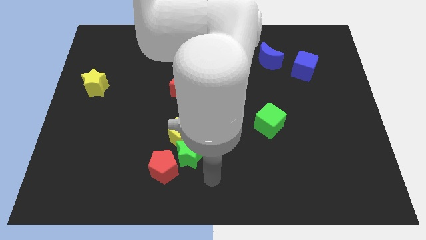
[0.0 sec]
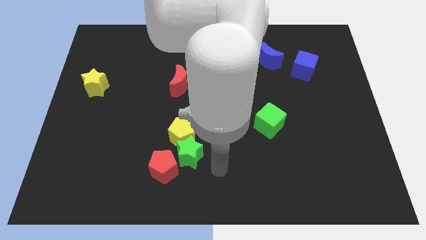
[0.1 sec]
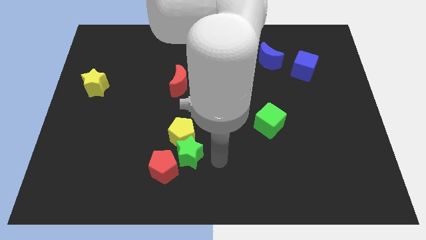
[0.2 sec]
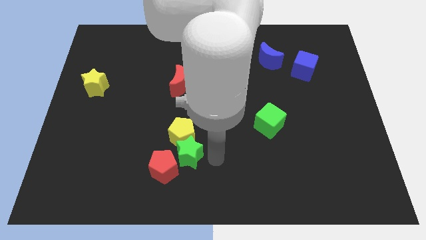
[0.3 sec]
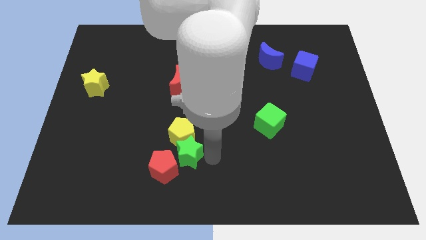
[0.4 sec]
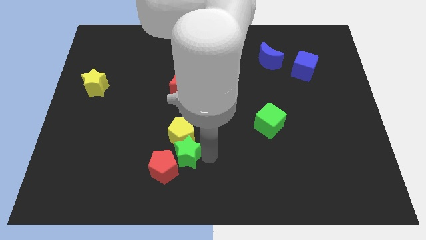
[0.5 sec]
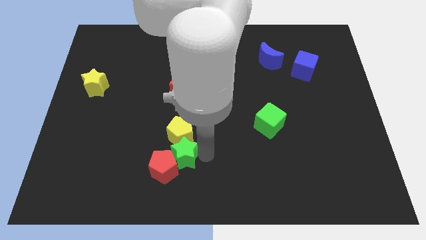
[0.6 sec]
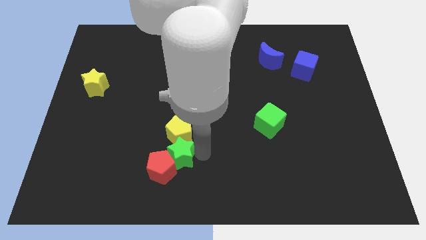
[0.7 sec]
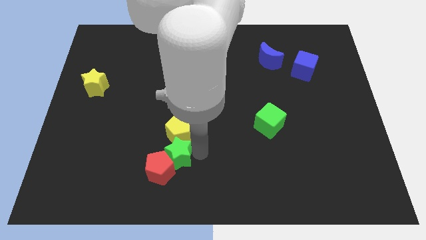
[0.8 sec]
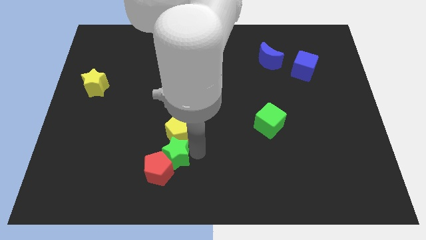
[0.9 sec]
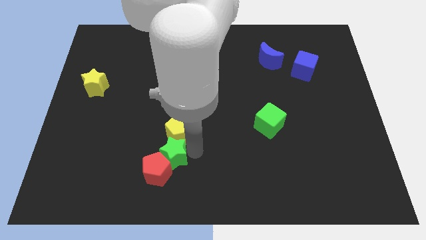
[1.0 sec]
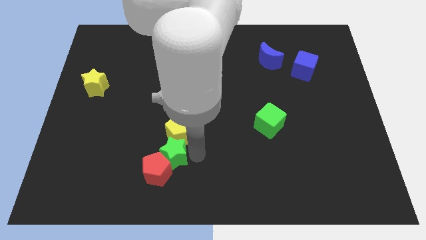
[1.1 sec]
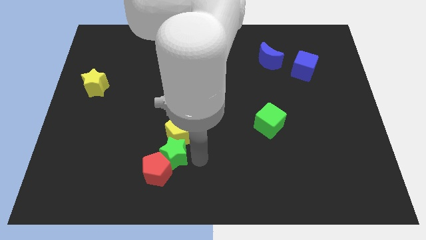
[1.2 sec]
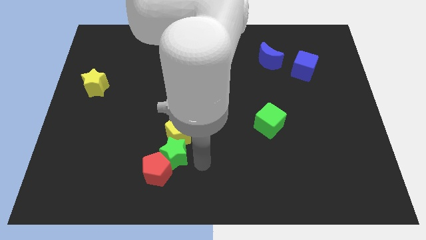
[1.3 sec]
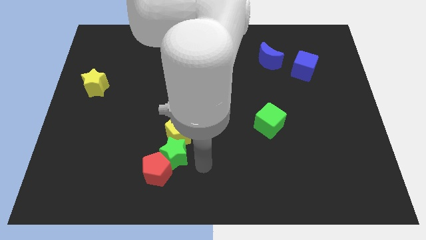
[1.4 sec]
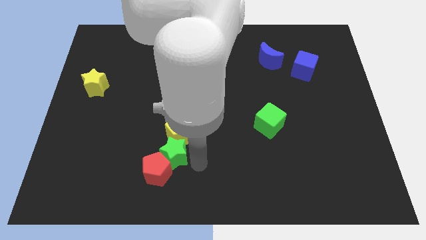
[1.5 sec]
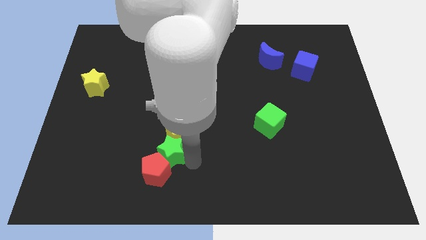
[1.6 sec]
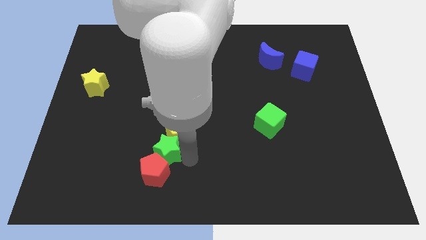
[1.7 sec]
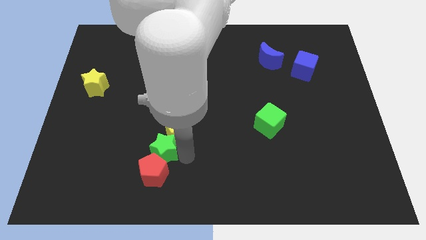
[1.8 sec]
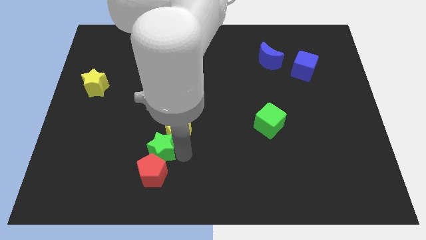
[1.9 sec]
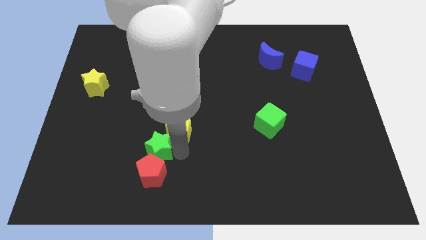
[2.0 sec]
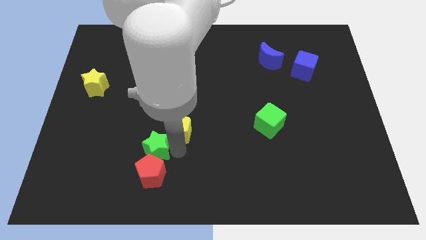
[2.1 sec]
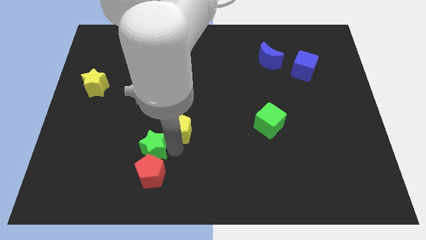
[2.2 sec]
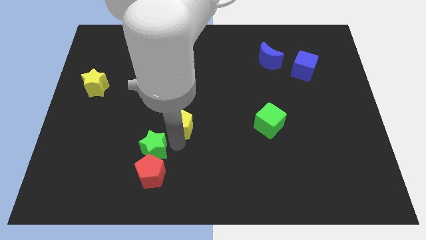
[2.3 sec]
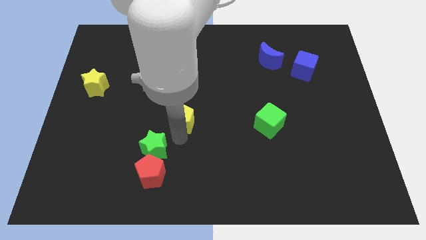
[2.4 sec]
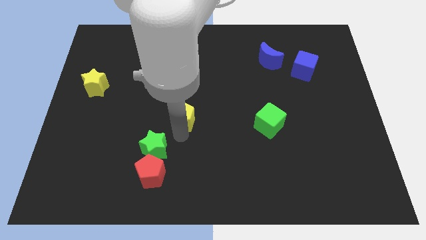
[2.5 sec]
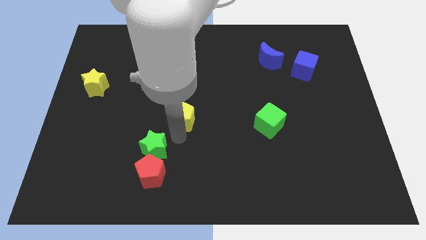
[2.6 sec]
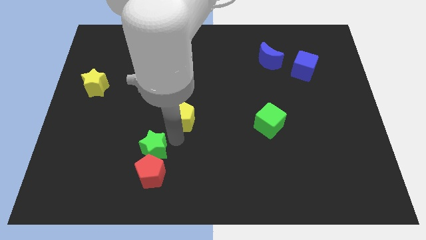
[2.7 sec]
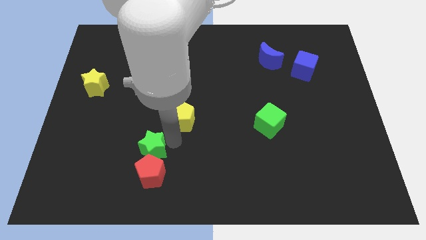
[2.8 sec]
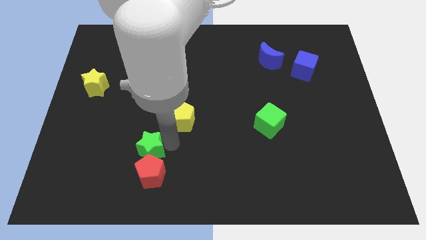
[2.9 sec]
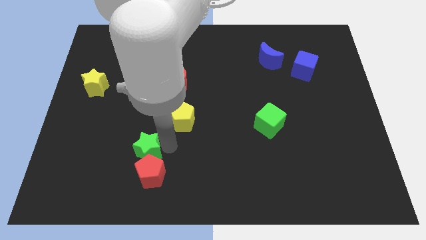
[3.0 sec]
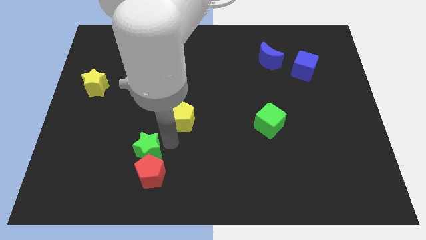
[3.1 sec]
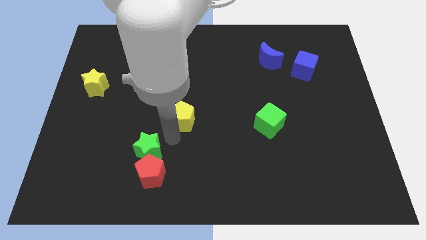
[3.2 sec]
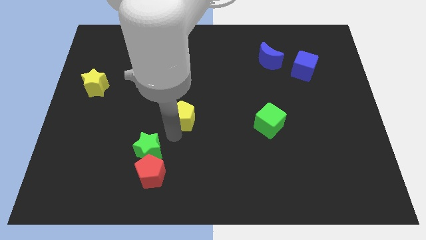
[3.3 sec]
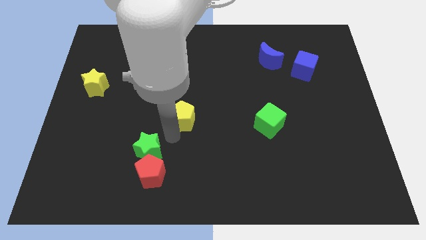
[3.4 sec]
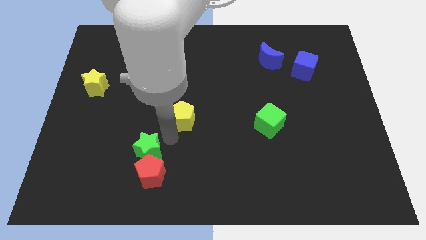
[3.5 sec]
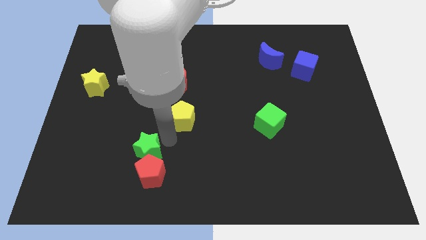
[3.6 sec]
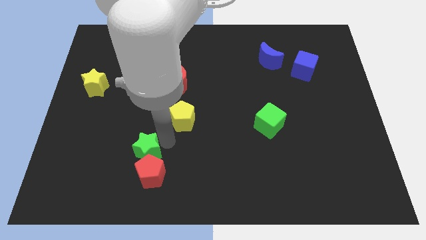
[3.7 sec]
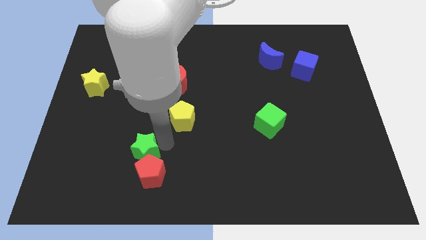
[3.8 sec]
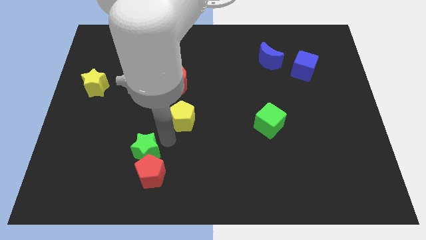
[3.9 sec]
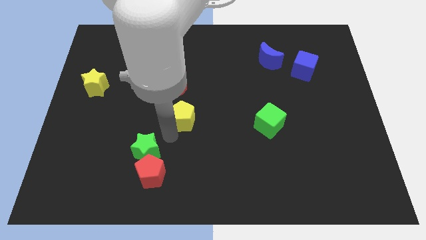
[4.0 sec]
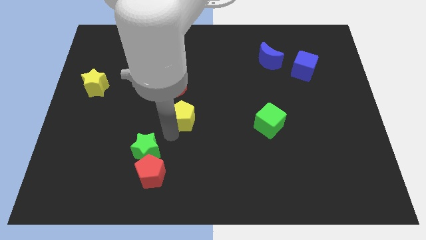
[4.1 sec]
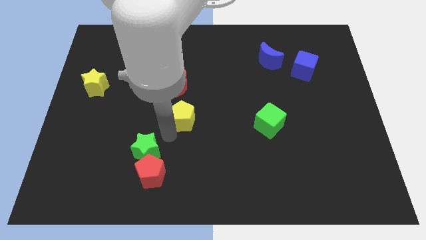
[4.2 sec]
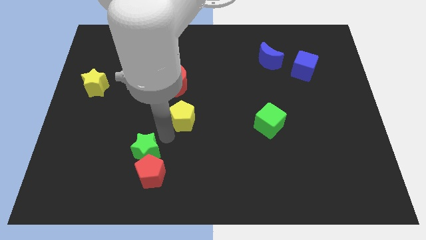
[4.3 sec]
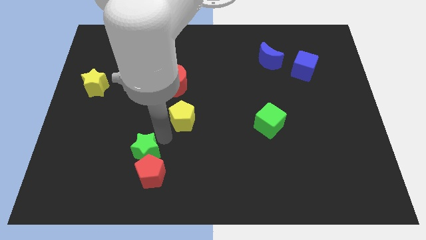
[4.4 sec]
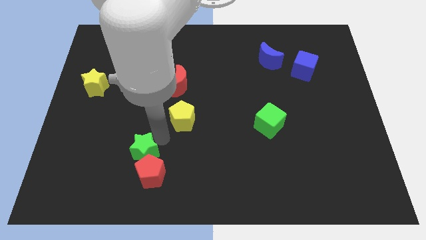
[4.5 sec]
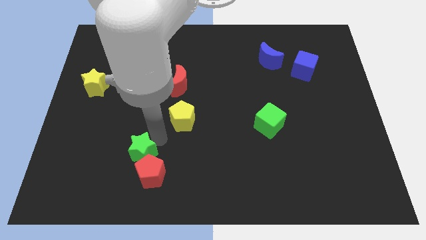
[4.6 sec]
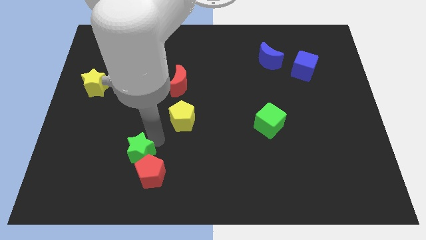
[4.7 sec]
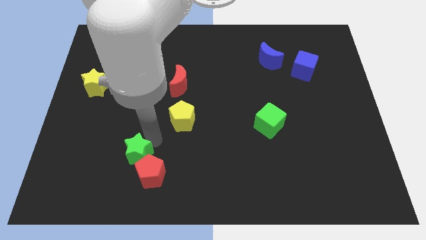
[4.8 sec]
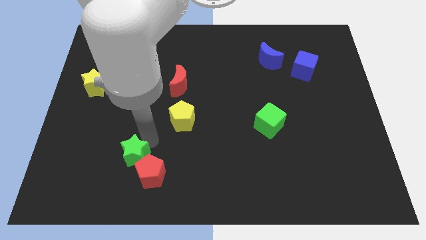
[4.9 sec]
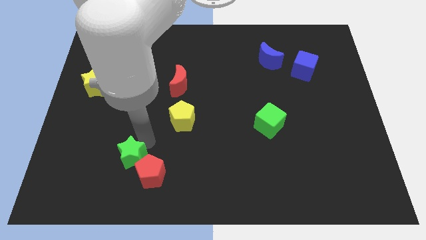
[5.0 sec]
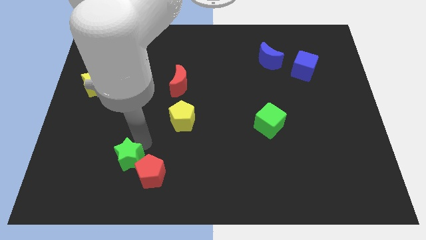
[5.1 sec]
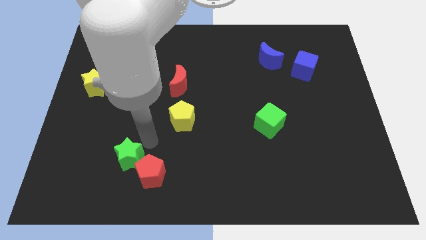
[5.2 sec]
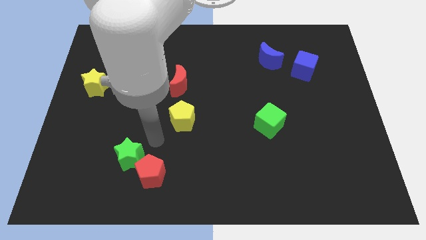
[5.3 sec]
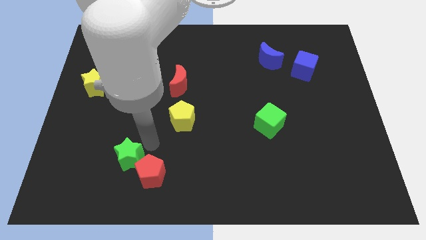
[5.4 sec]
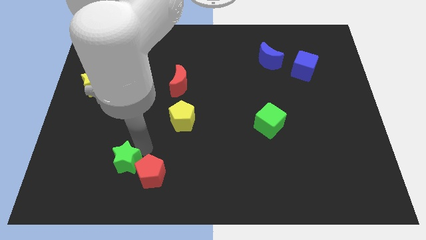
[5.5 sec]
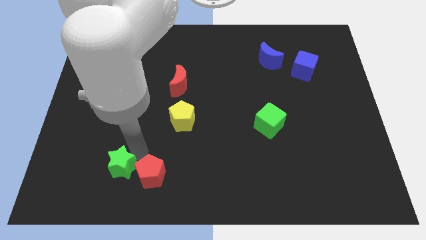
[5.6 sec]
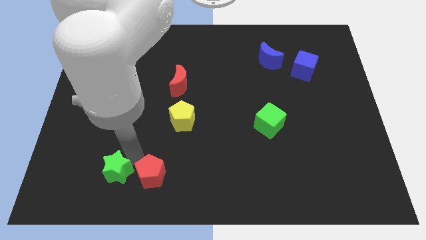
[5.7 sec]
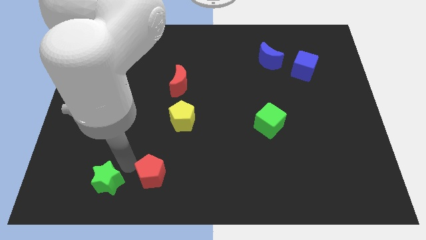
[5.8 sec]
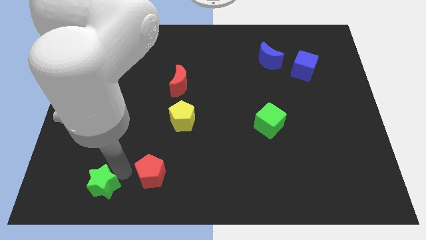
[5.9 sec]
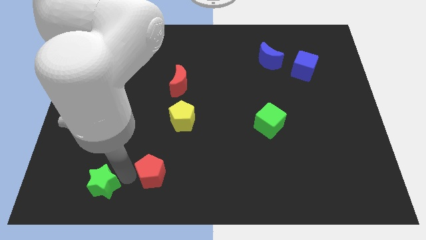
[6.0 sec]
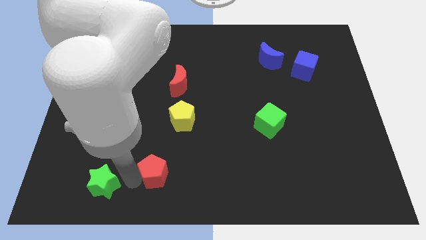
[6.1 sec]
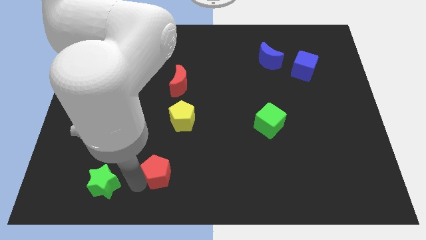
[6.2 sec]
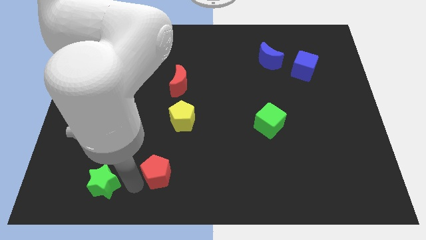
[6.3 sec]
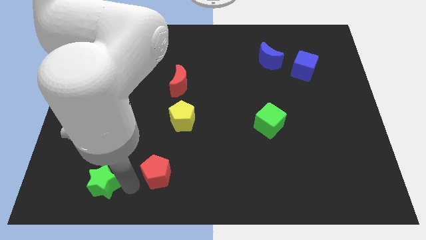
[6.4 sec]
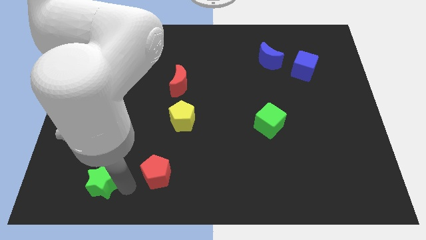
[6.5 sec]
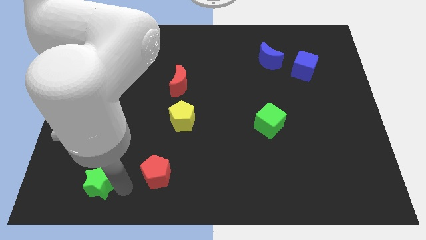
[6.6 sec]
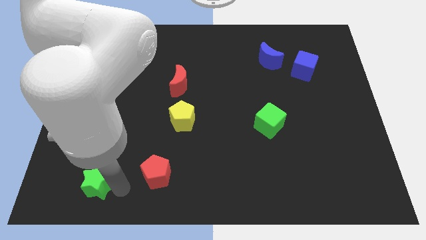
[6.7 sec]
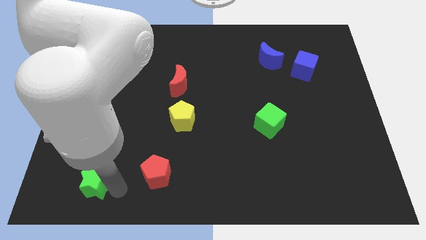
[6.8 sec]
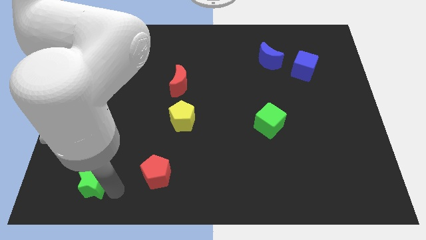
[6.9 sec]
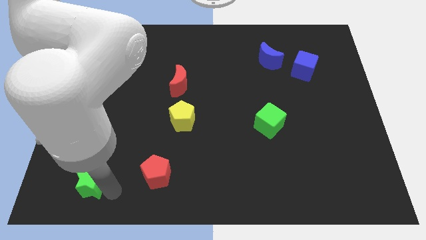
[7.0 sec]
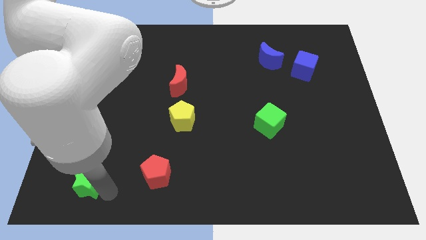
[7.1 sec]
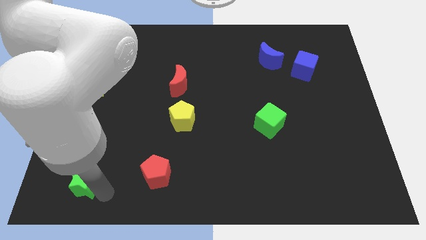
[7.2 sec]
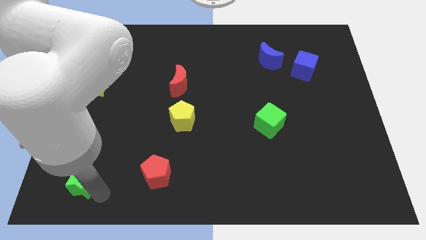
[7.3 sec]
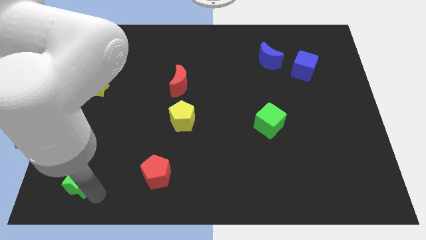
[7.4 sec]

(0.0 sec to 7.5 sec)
slide the green star to the bottom left
